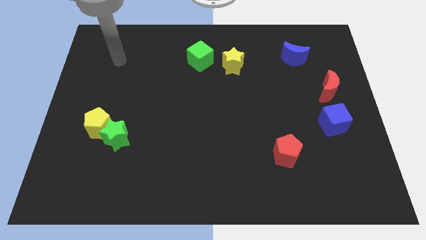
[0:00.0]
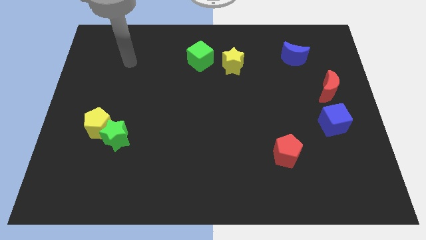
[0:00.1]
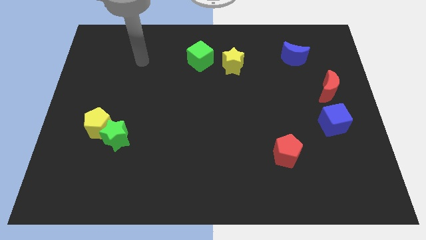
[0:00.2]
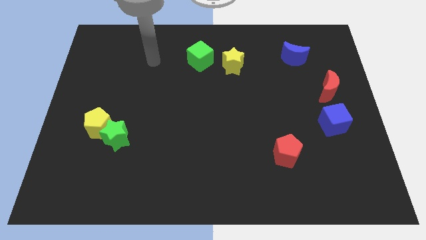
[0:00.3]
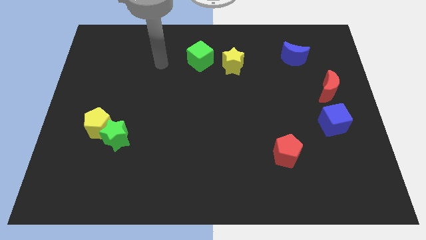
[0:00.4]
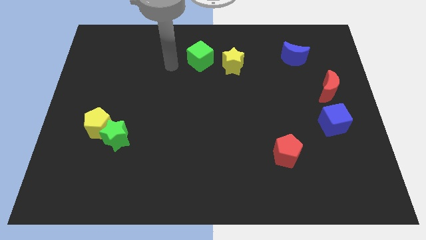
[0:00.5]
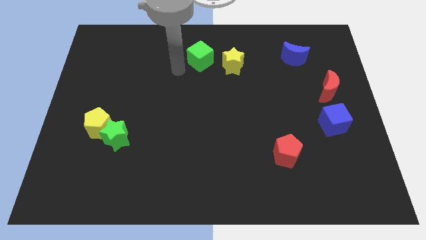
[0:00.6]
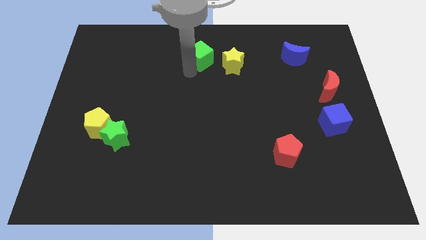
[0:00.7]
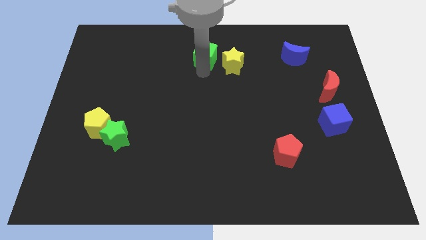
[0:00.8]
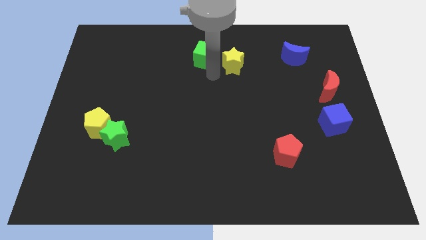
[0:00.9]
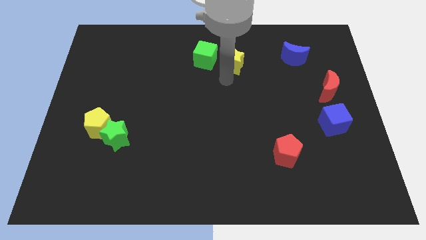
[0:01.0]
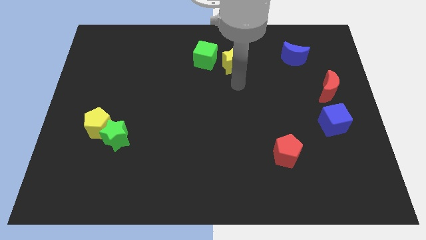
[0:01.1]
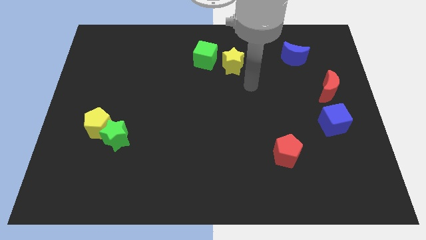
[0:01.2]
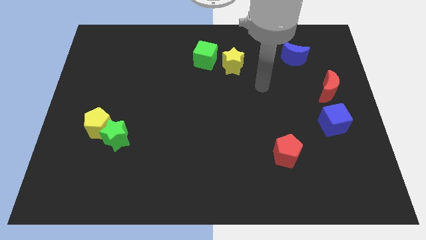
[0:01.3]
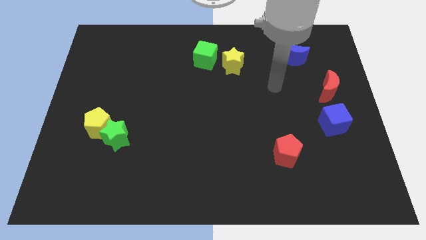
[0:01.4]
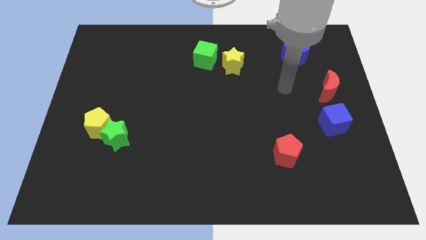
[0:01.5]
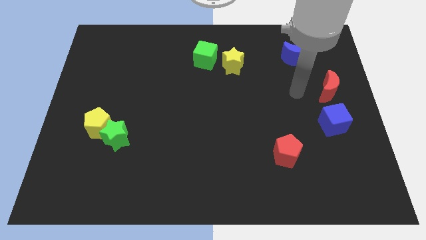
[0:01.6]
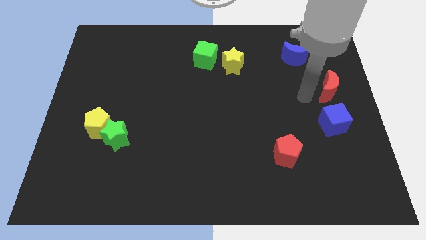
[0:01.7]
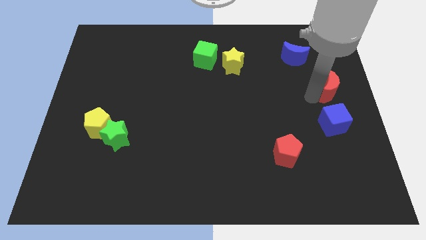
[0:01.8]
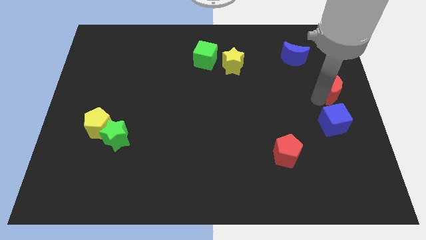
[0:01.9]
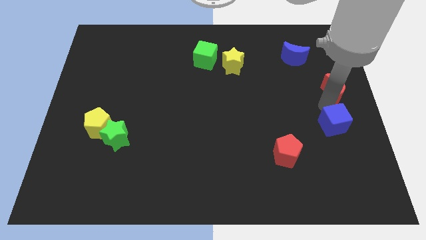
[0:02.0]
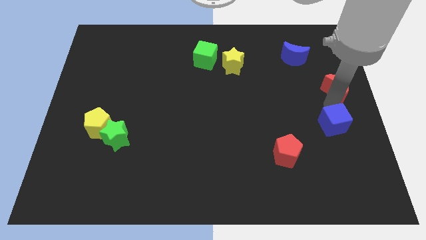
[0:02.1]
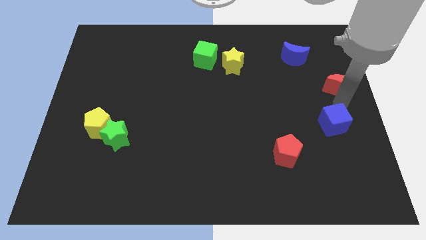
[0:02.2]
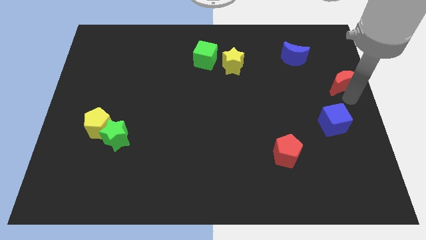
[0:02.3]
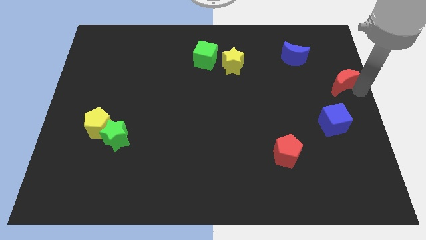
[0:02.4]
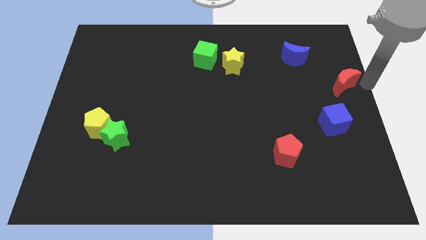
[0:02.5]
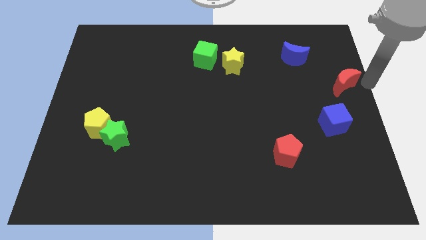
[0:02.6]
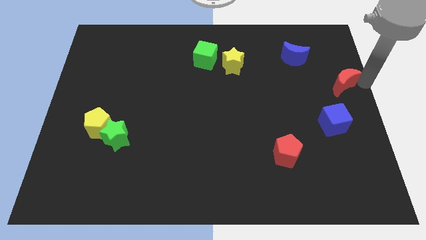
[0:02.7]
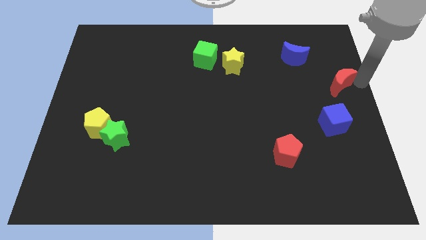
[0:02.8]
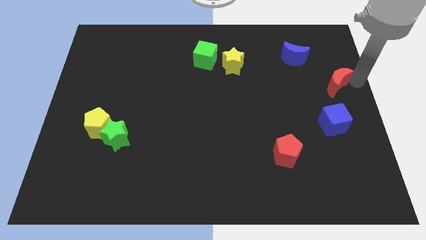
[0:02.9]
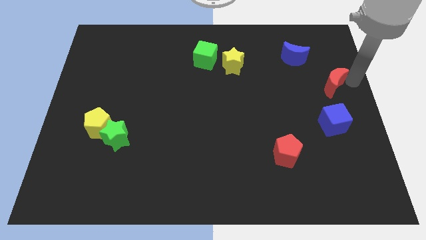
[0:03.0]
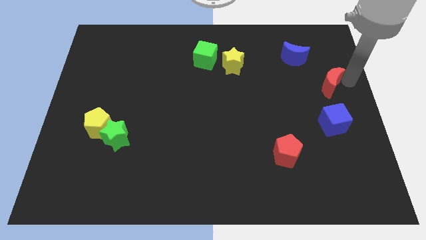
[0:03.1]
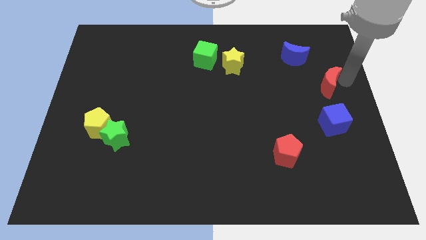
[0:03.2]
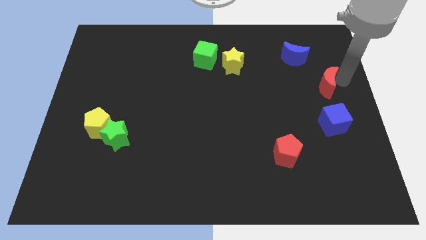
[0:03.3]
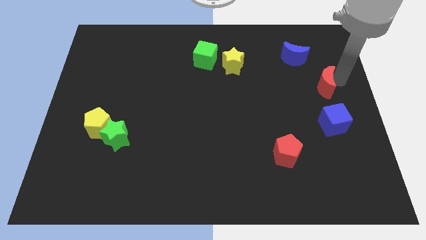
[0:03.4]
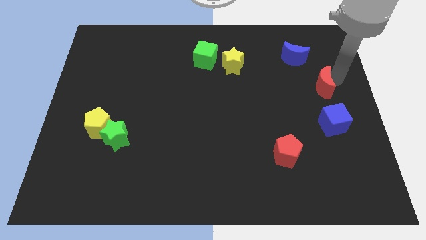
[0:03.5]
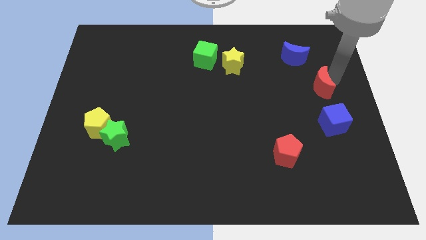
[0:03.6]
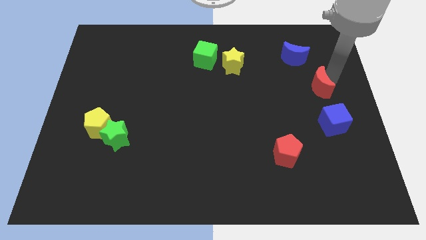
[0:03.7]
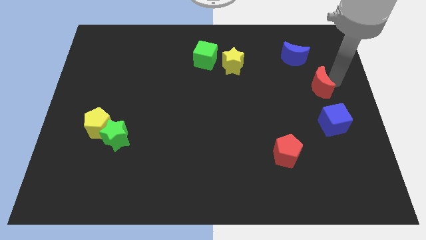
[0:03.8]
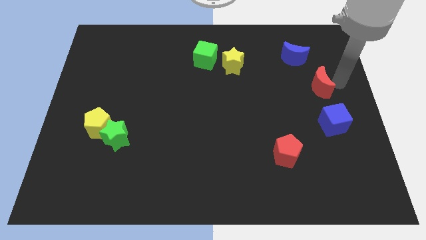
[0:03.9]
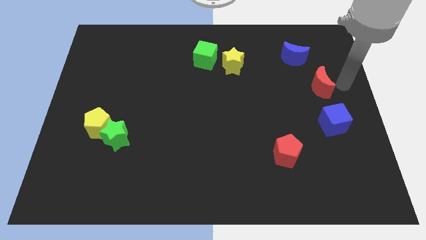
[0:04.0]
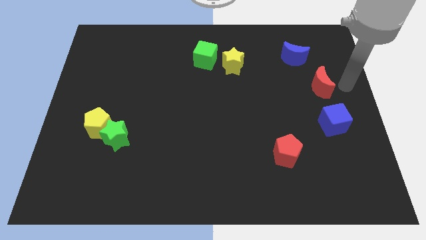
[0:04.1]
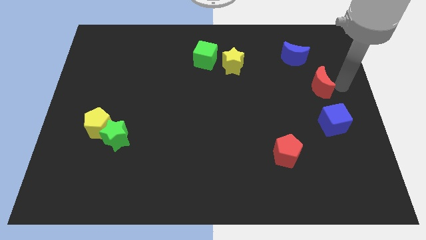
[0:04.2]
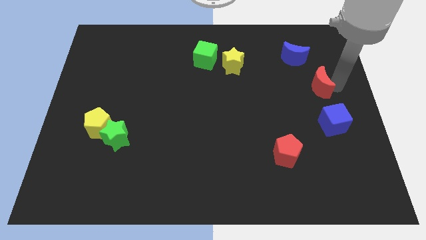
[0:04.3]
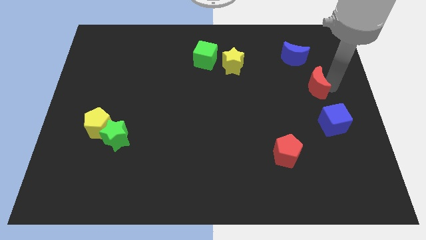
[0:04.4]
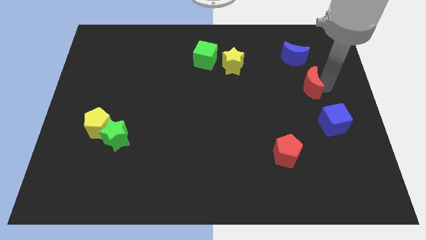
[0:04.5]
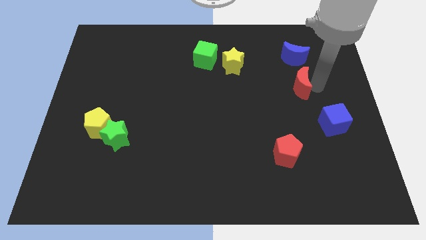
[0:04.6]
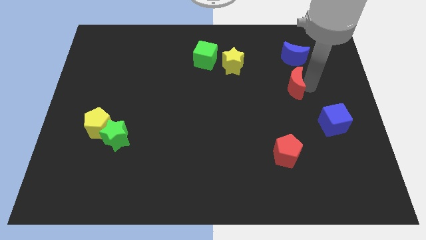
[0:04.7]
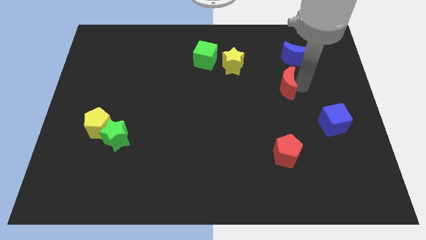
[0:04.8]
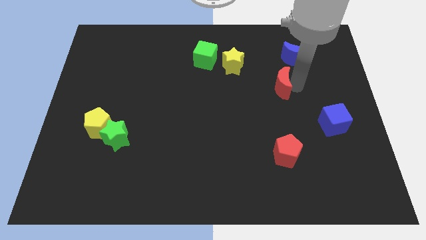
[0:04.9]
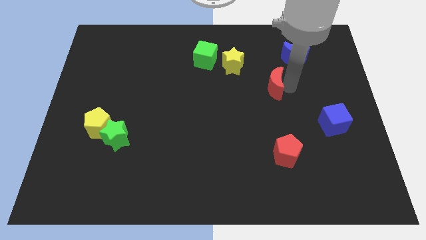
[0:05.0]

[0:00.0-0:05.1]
put the red moon diagonally down and to the right of the yellow star

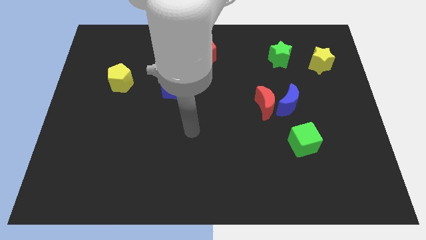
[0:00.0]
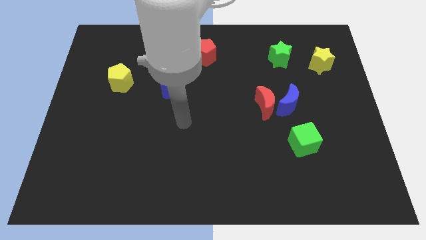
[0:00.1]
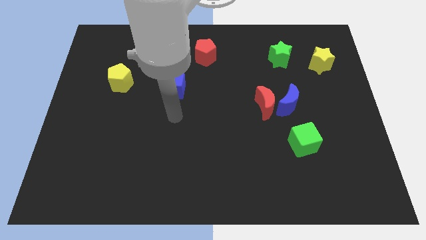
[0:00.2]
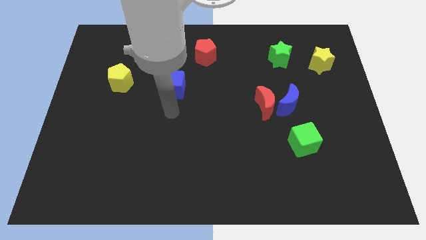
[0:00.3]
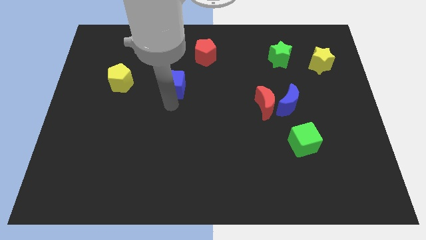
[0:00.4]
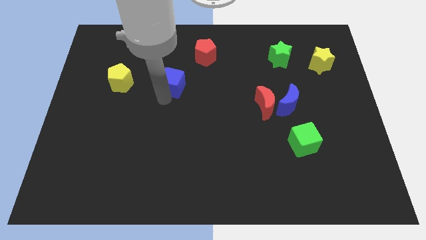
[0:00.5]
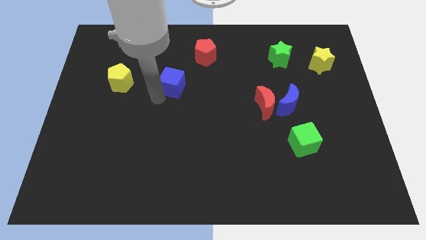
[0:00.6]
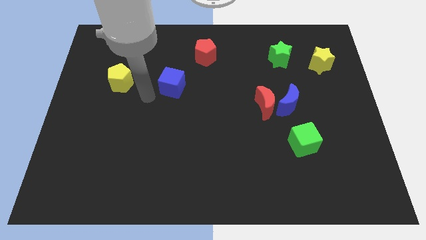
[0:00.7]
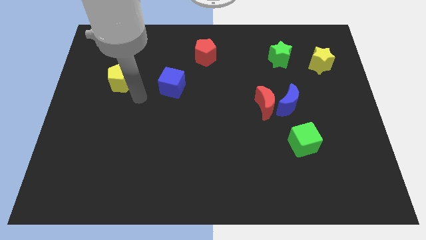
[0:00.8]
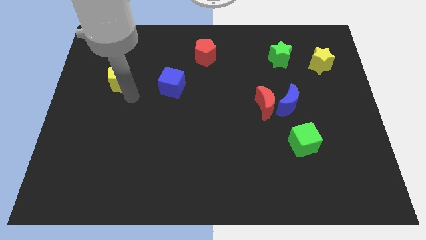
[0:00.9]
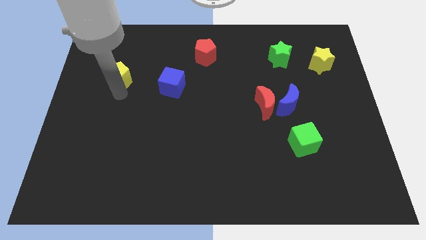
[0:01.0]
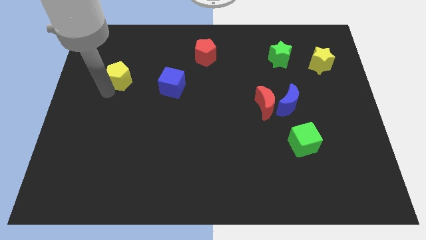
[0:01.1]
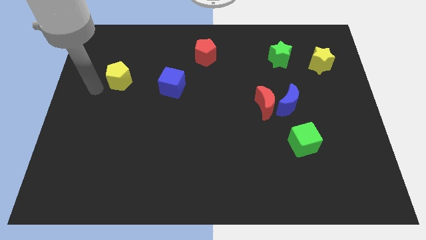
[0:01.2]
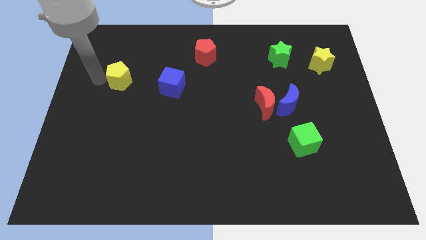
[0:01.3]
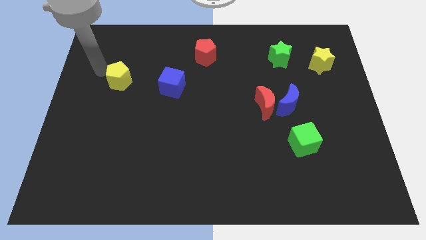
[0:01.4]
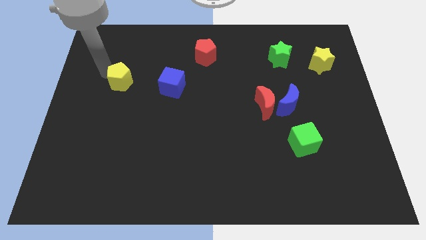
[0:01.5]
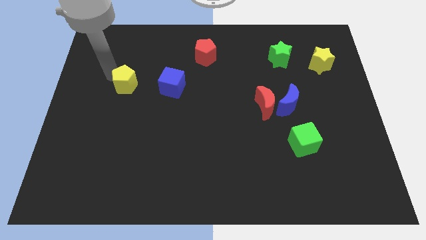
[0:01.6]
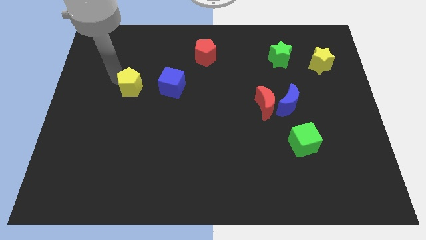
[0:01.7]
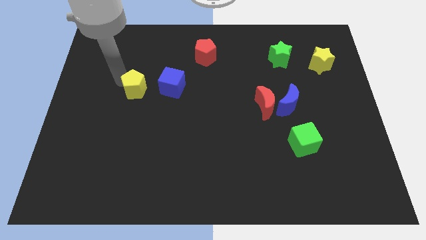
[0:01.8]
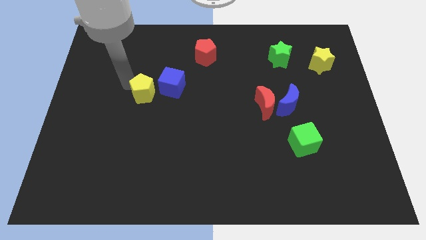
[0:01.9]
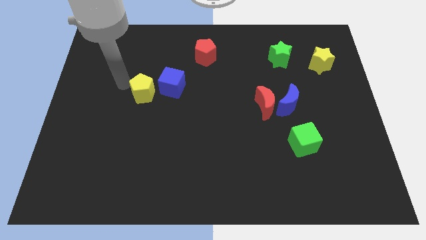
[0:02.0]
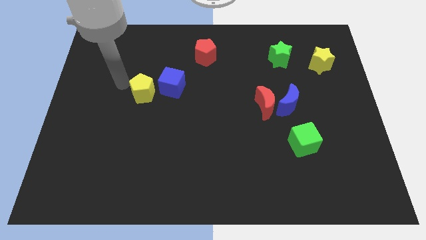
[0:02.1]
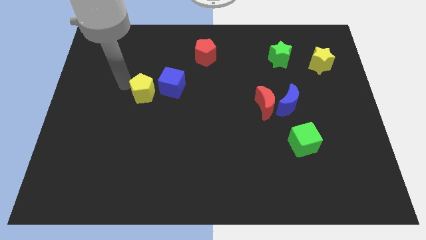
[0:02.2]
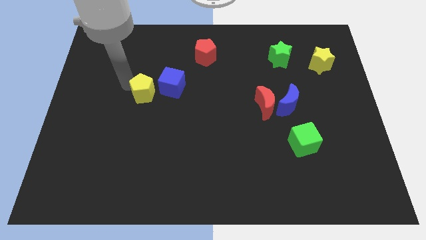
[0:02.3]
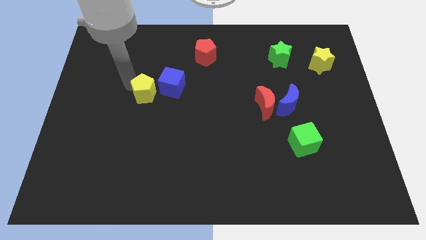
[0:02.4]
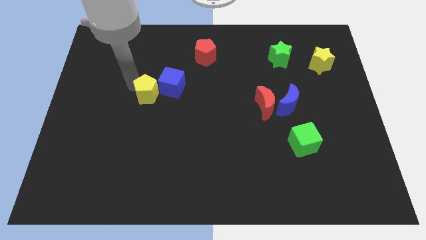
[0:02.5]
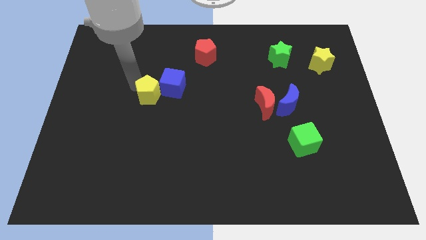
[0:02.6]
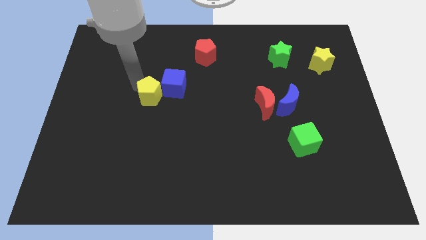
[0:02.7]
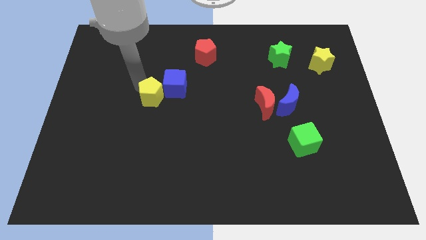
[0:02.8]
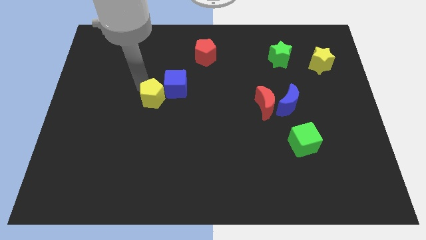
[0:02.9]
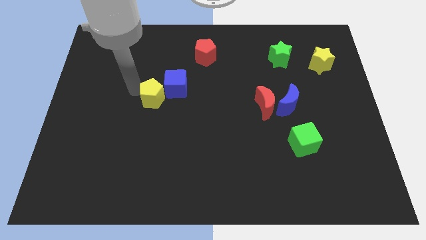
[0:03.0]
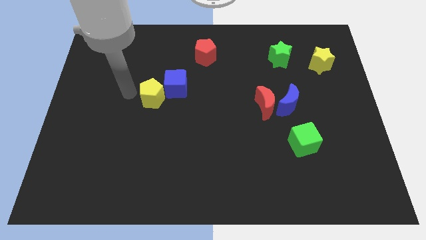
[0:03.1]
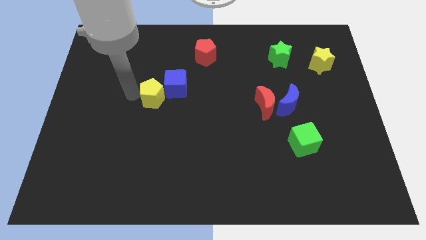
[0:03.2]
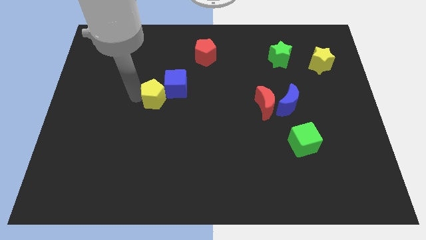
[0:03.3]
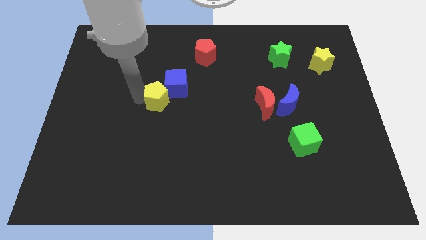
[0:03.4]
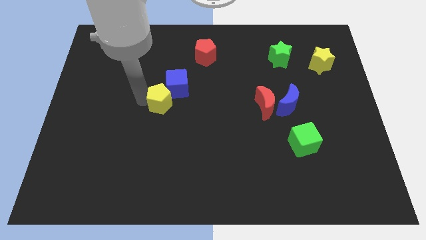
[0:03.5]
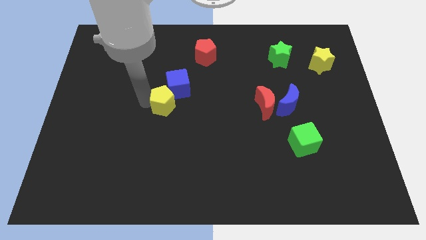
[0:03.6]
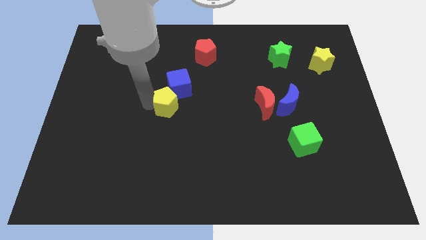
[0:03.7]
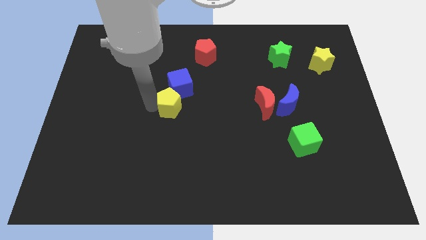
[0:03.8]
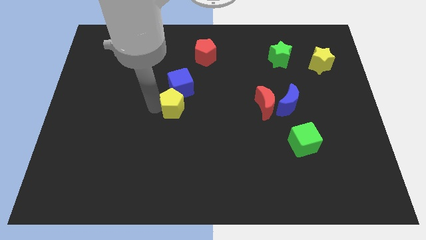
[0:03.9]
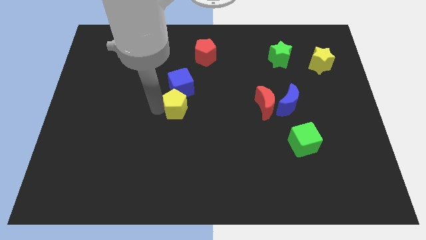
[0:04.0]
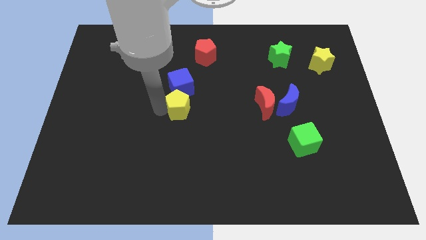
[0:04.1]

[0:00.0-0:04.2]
slide the yellow pentagon to the bottom right of the blue cube
